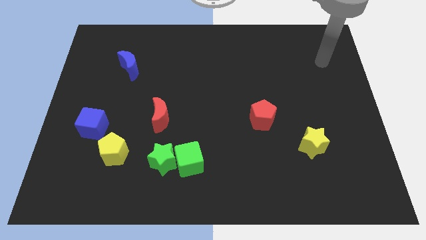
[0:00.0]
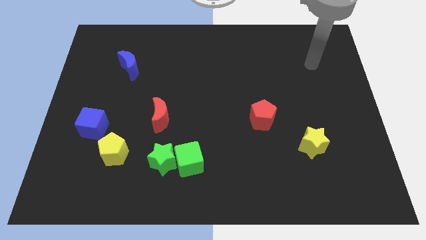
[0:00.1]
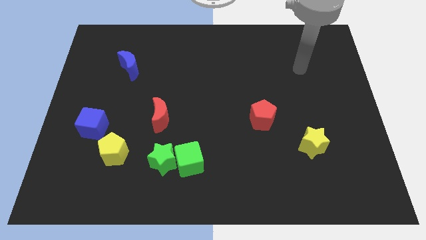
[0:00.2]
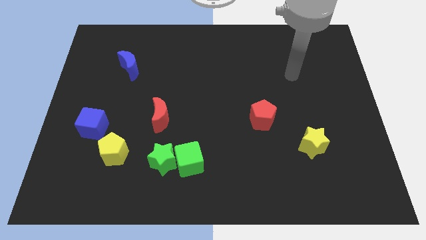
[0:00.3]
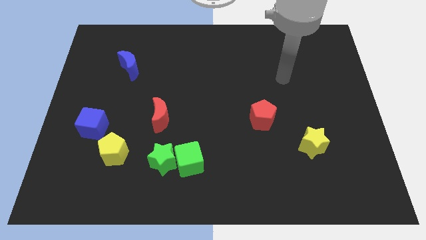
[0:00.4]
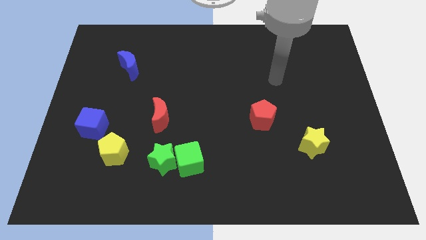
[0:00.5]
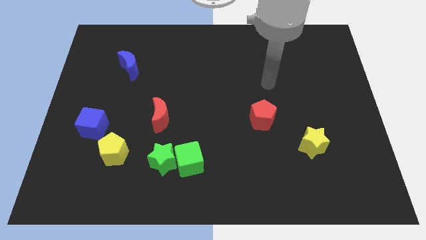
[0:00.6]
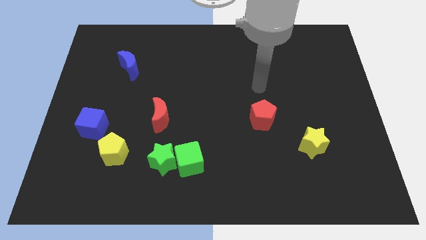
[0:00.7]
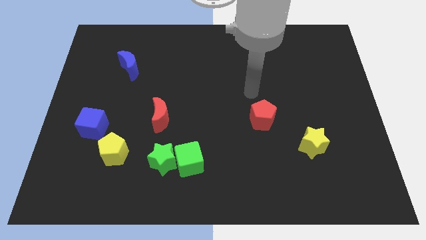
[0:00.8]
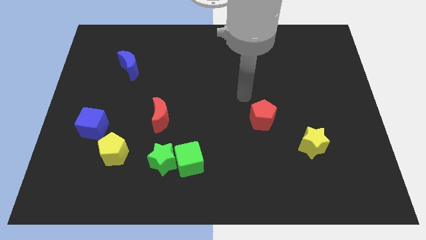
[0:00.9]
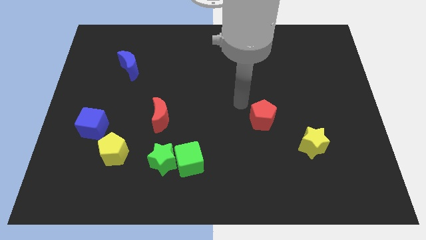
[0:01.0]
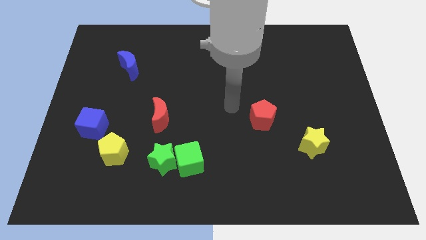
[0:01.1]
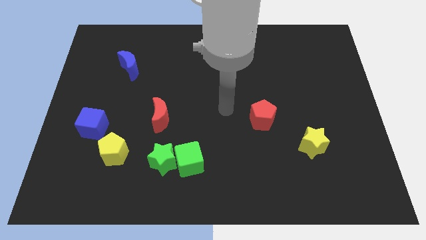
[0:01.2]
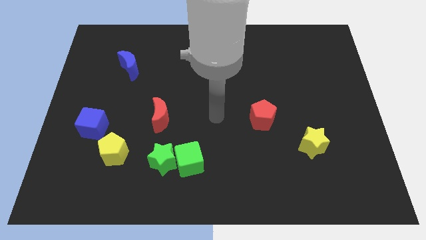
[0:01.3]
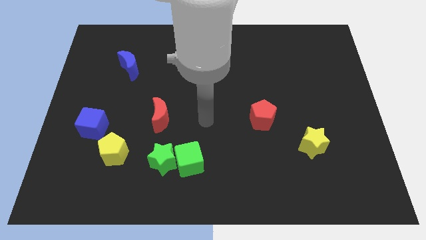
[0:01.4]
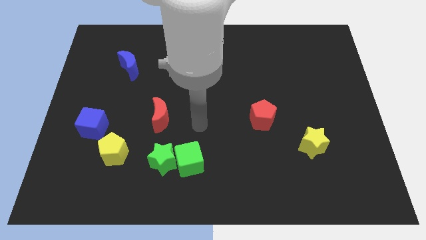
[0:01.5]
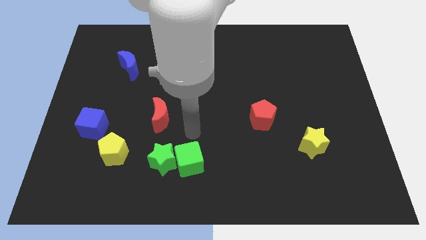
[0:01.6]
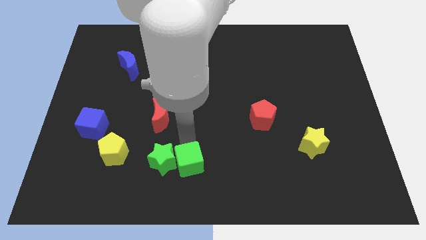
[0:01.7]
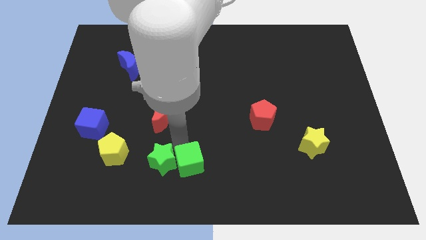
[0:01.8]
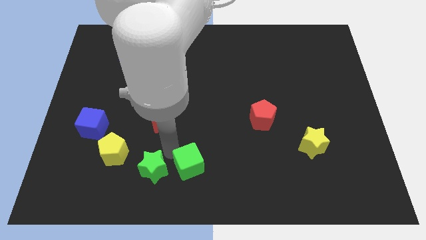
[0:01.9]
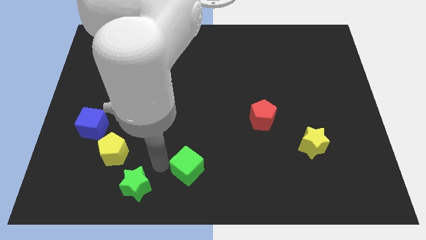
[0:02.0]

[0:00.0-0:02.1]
pull the green cube apart from the green star

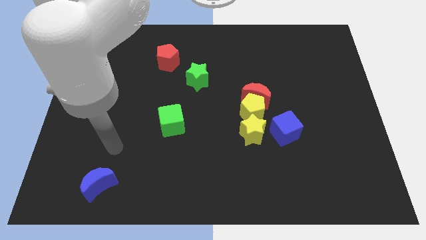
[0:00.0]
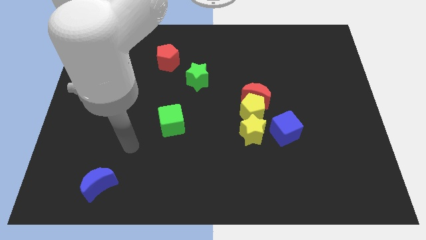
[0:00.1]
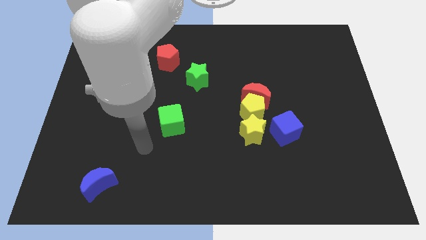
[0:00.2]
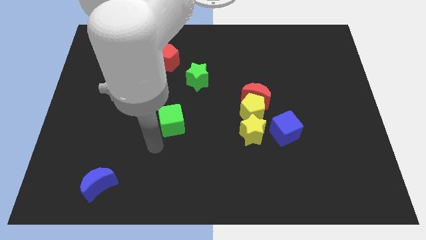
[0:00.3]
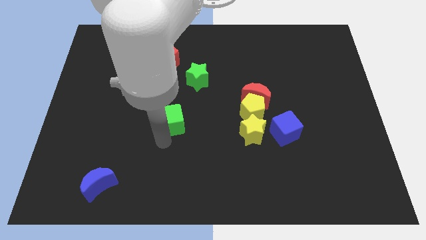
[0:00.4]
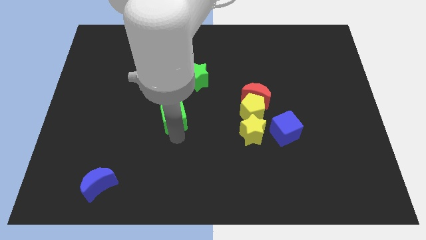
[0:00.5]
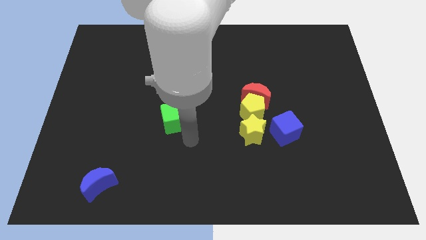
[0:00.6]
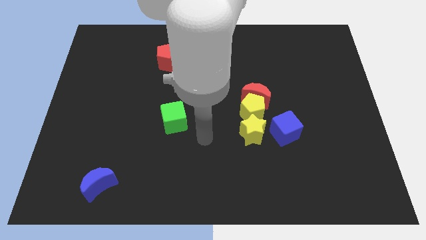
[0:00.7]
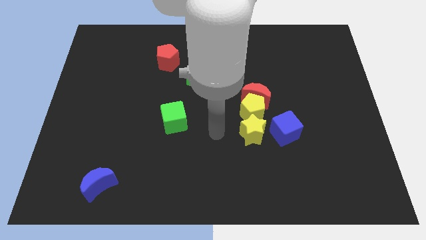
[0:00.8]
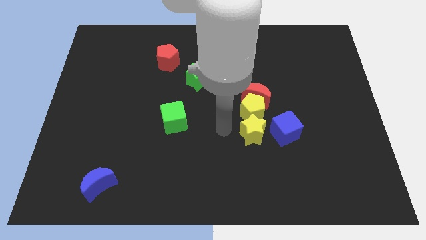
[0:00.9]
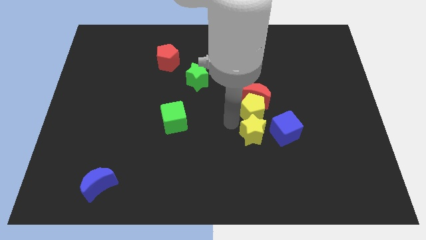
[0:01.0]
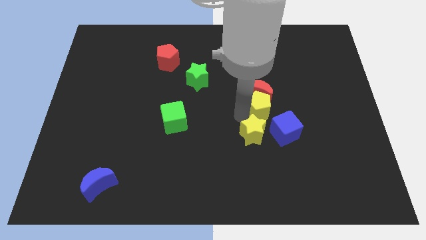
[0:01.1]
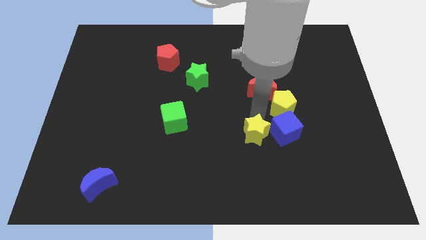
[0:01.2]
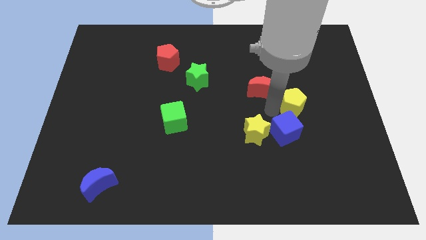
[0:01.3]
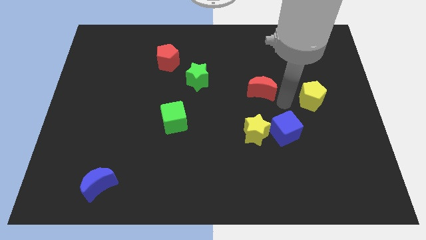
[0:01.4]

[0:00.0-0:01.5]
separate the red moon from the yellow pentagon

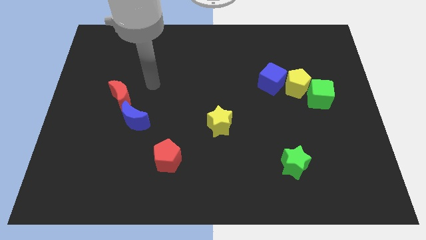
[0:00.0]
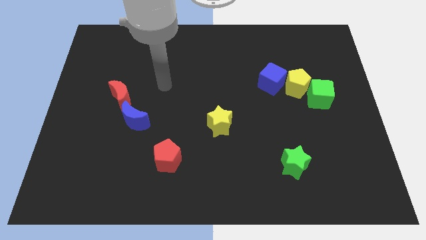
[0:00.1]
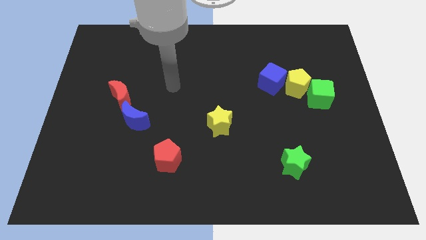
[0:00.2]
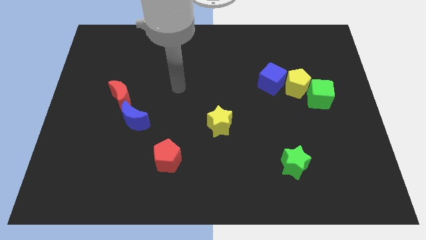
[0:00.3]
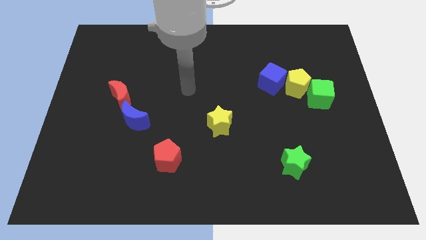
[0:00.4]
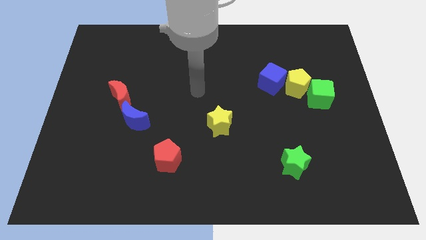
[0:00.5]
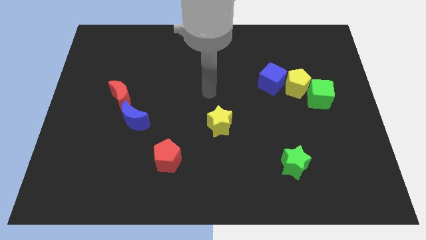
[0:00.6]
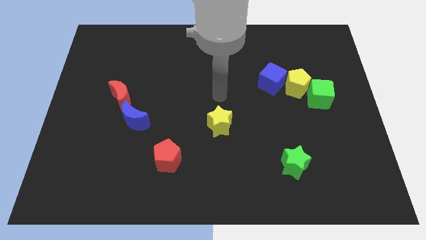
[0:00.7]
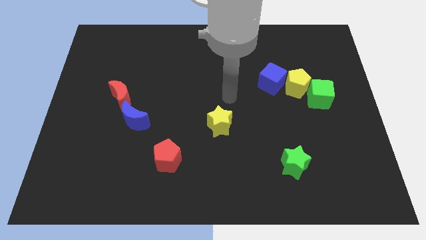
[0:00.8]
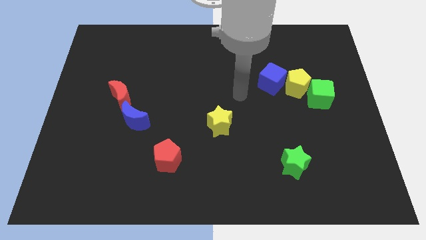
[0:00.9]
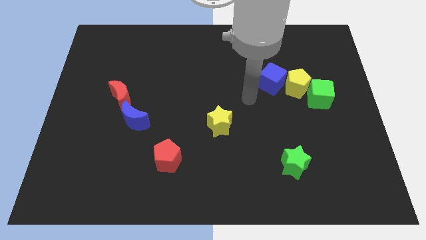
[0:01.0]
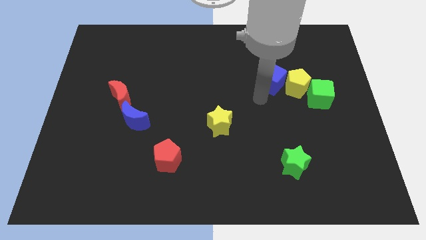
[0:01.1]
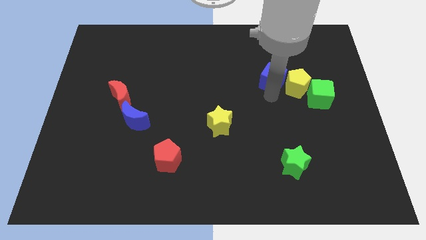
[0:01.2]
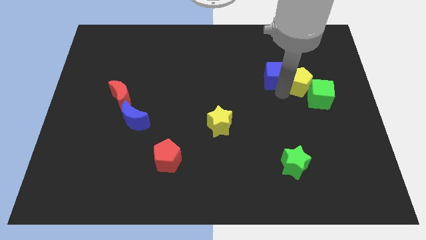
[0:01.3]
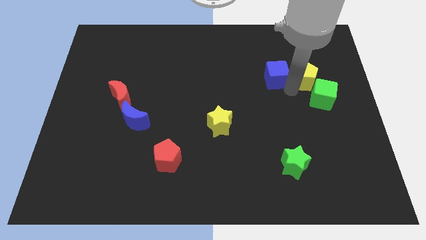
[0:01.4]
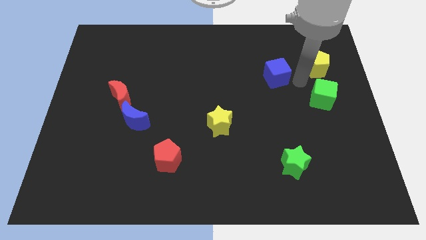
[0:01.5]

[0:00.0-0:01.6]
pull the blue cube apart from the yellow pentagon

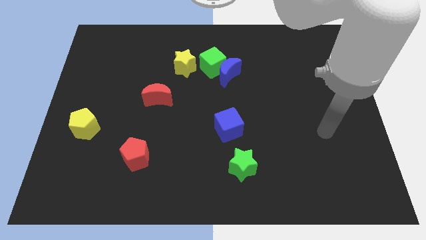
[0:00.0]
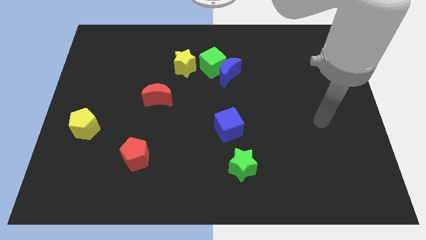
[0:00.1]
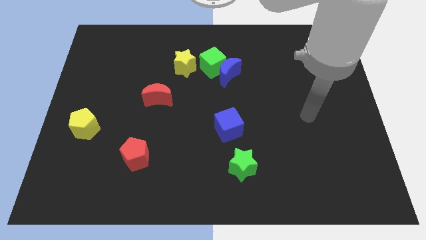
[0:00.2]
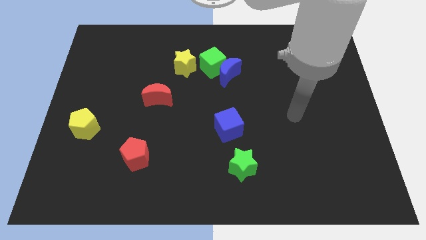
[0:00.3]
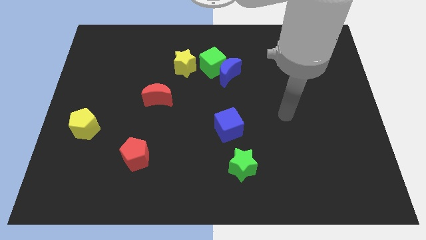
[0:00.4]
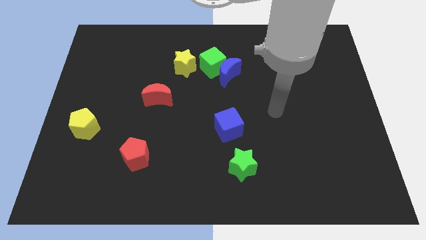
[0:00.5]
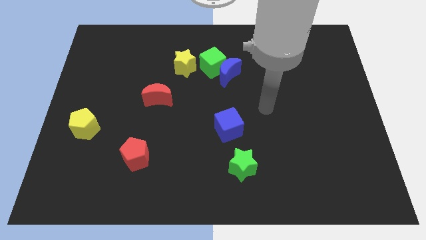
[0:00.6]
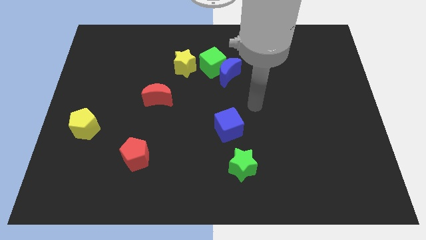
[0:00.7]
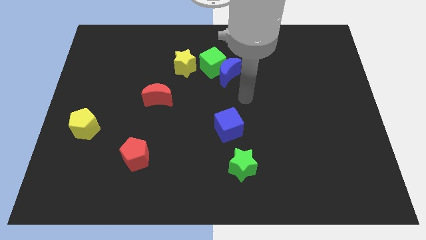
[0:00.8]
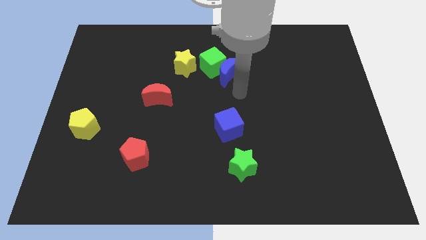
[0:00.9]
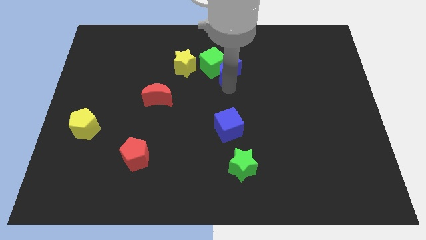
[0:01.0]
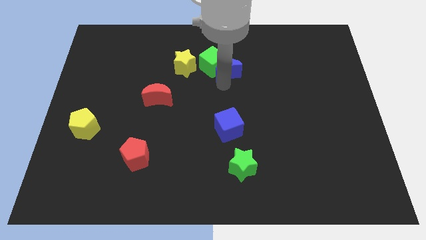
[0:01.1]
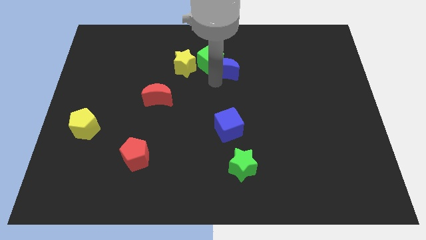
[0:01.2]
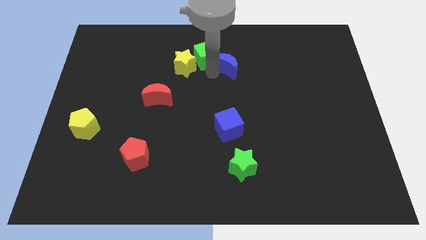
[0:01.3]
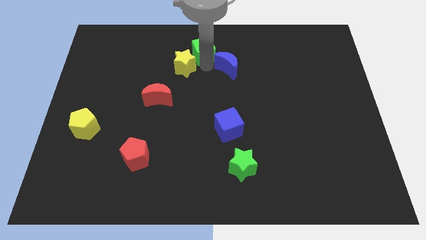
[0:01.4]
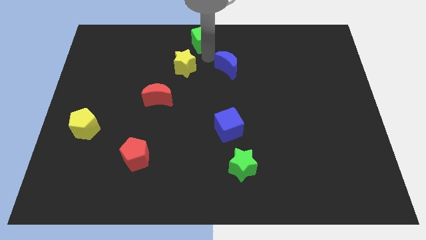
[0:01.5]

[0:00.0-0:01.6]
pull the blue moon apart from the green cube

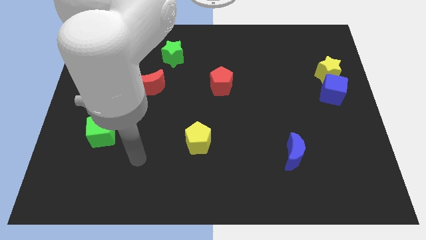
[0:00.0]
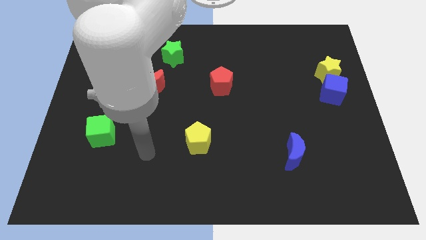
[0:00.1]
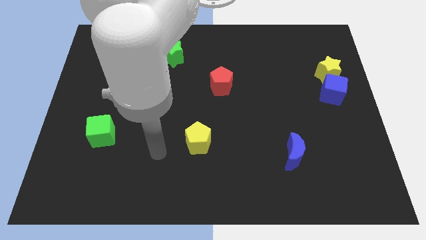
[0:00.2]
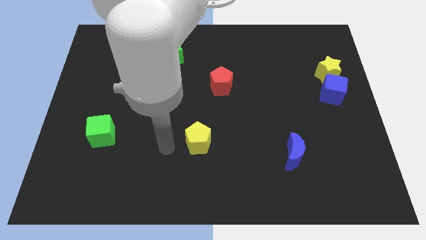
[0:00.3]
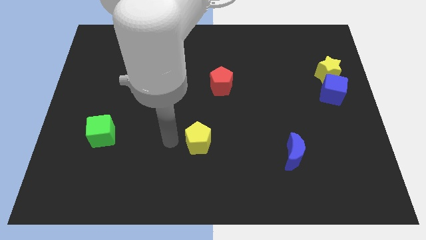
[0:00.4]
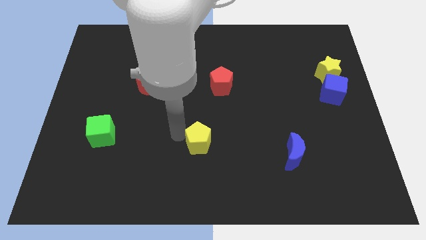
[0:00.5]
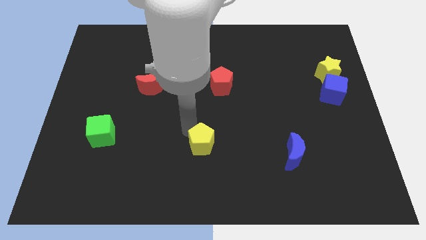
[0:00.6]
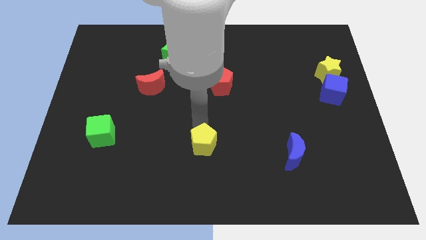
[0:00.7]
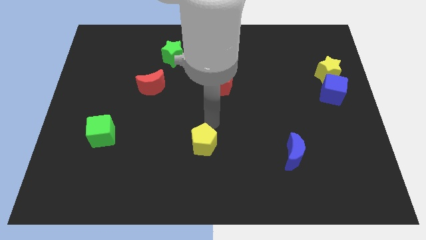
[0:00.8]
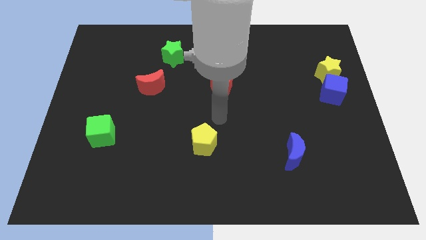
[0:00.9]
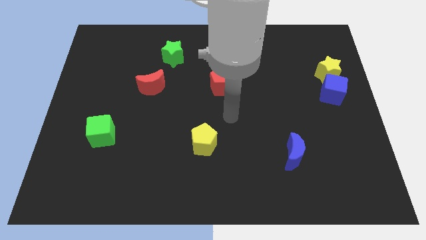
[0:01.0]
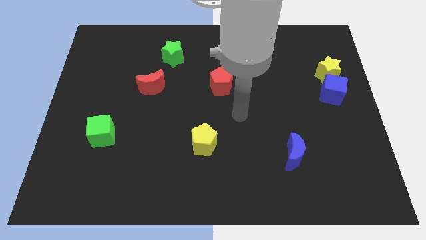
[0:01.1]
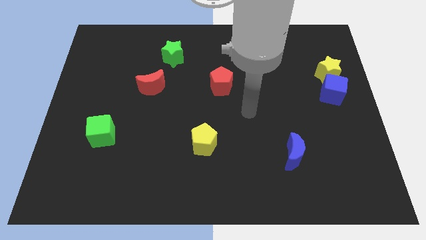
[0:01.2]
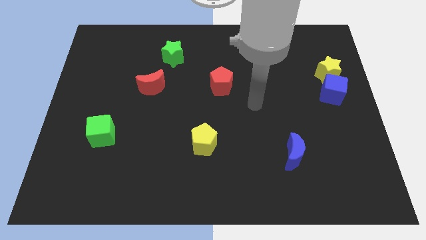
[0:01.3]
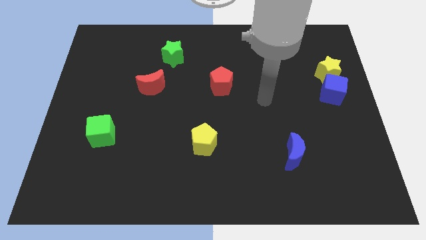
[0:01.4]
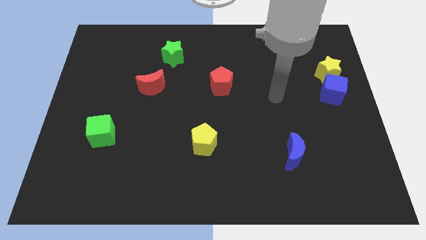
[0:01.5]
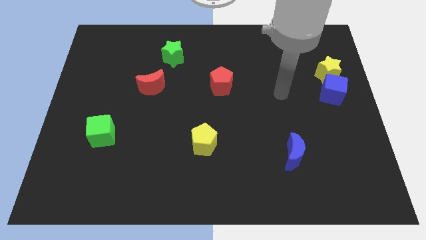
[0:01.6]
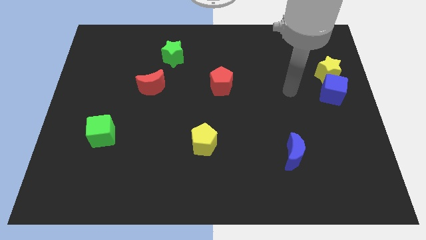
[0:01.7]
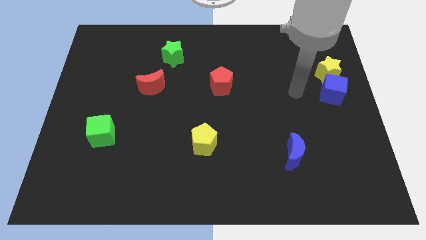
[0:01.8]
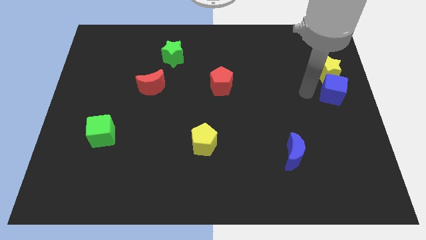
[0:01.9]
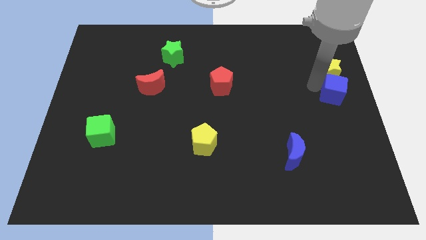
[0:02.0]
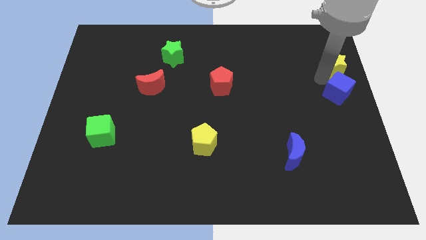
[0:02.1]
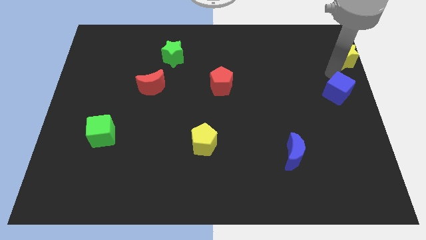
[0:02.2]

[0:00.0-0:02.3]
pull the blue cube apart from the yellow star

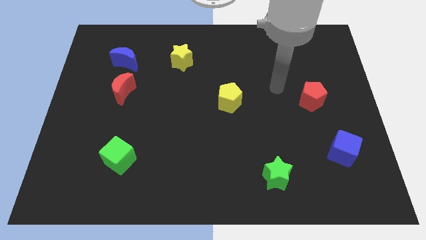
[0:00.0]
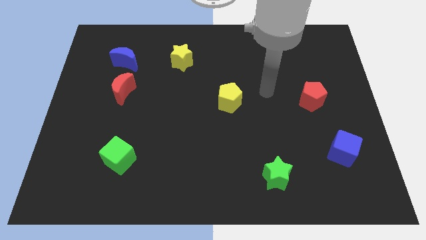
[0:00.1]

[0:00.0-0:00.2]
move the red moon away from the blue moon
